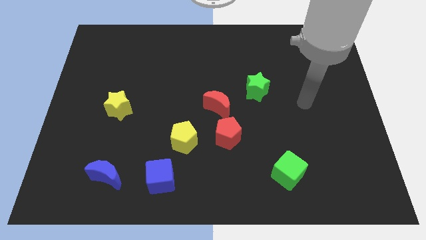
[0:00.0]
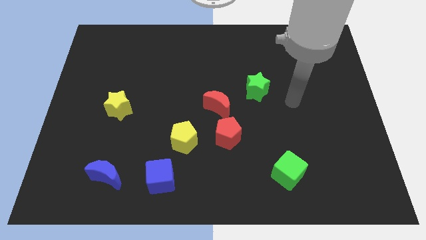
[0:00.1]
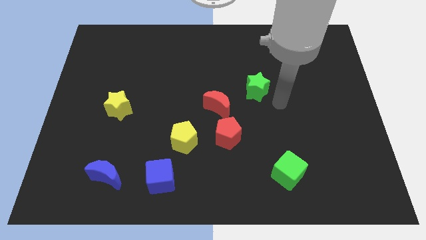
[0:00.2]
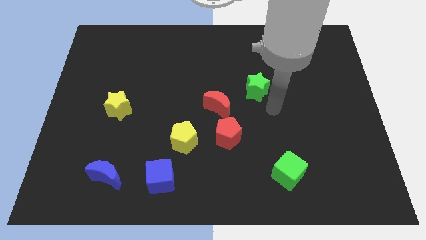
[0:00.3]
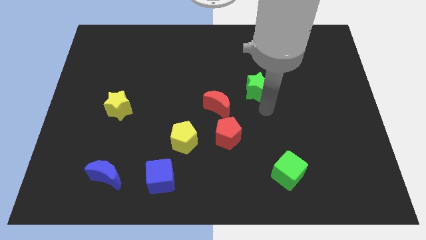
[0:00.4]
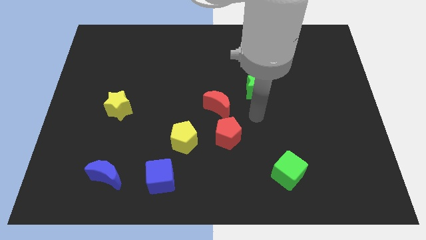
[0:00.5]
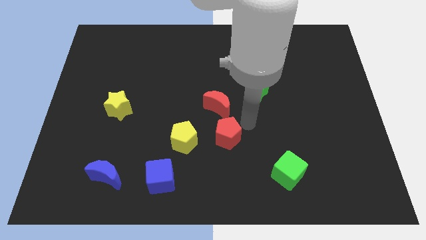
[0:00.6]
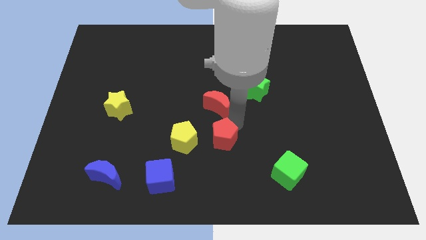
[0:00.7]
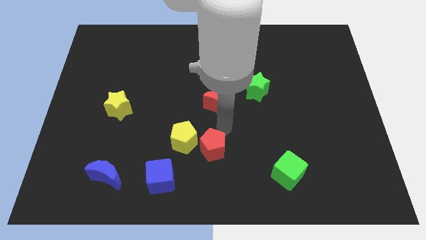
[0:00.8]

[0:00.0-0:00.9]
pull the red moon apart from the red pentagon

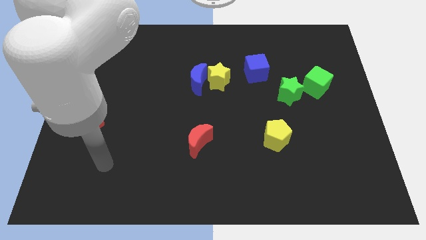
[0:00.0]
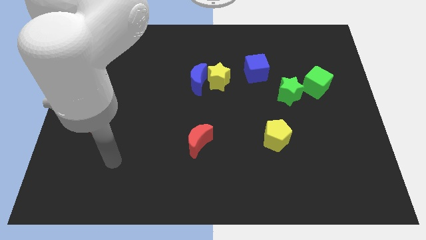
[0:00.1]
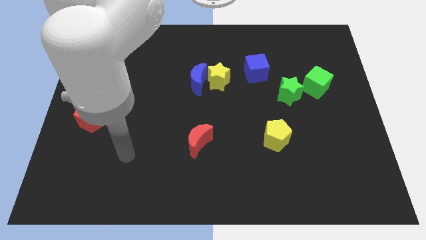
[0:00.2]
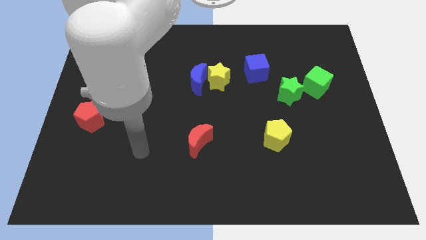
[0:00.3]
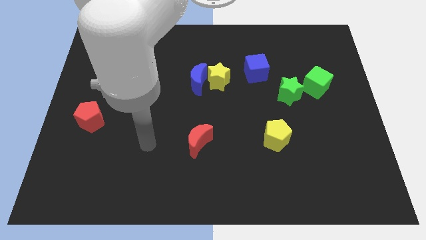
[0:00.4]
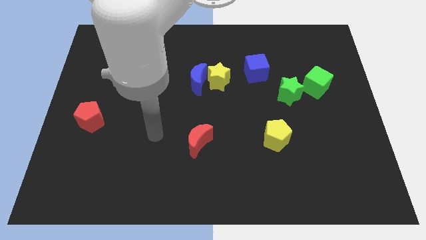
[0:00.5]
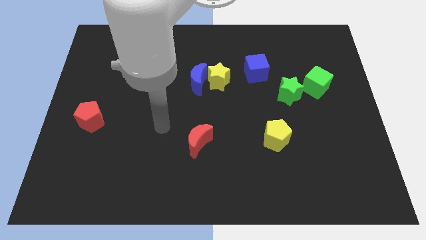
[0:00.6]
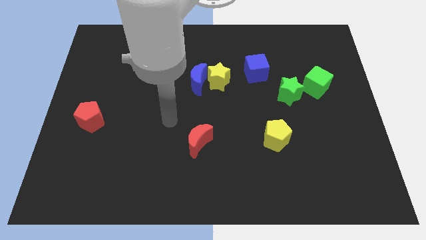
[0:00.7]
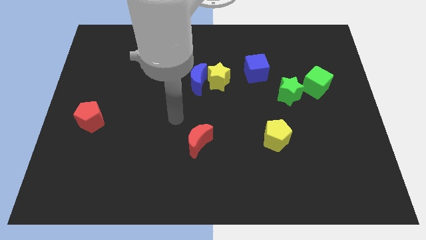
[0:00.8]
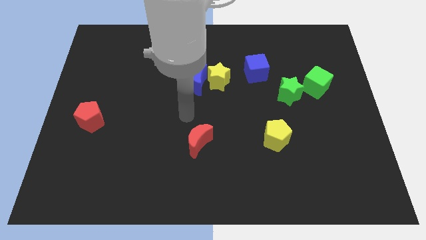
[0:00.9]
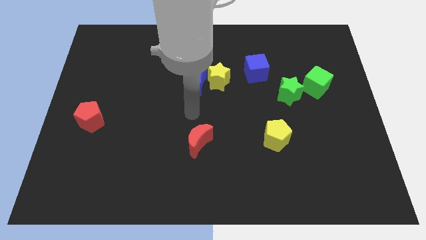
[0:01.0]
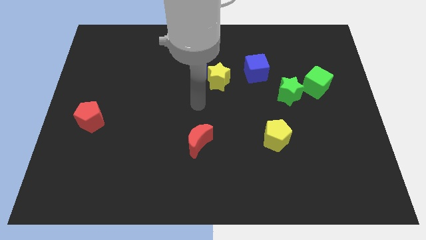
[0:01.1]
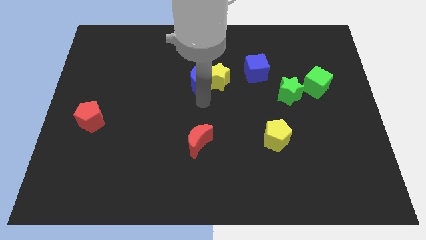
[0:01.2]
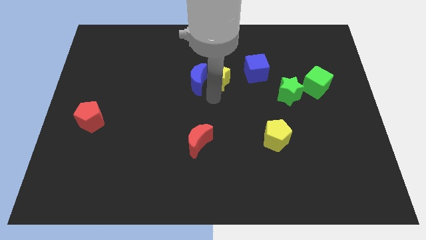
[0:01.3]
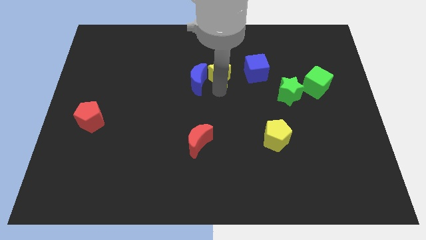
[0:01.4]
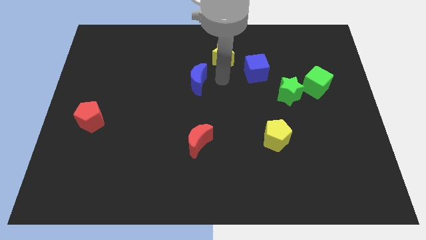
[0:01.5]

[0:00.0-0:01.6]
move the blue moon away from the yellow star

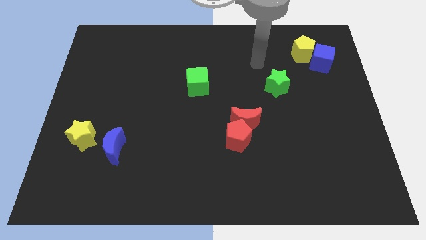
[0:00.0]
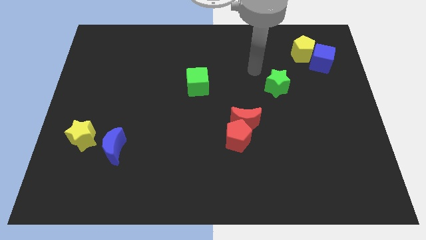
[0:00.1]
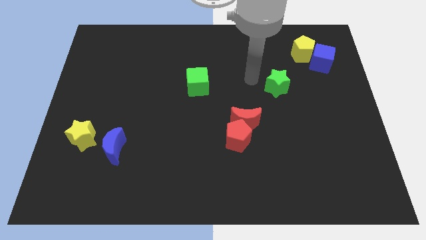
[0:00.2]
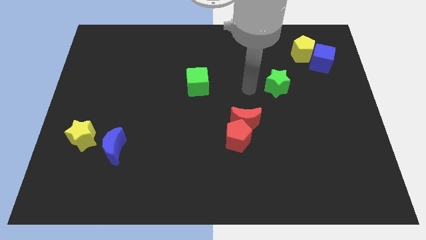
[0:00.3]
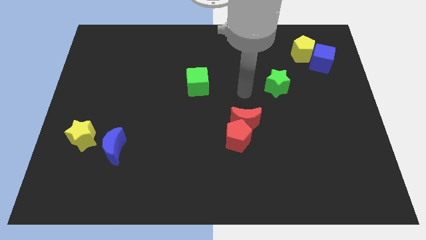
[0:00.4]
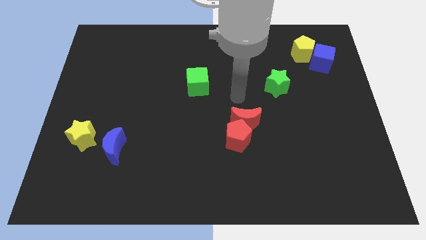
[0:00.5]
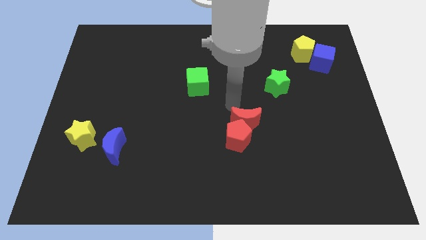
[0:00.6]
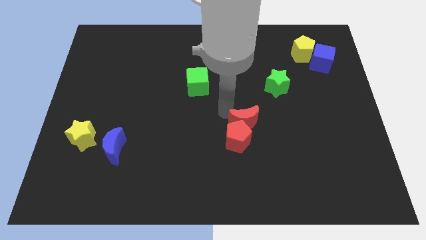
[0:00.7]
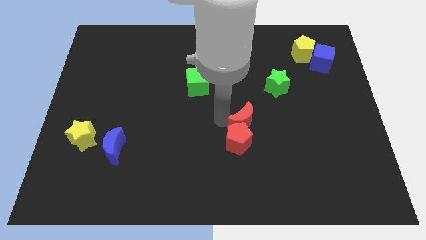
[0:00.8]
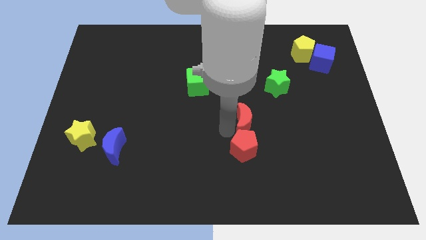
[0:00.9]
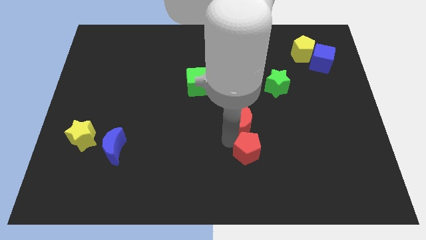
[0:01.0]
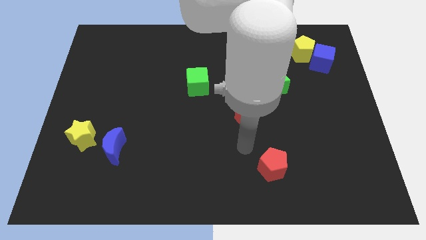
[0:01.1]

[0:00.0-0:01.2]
separate the red moon from the red pentagon

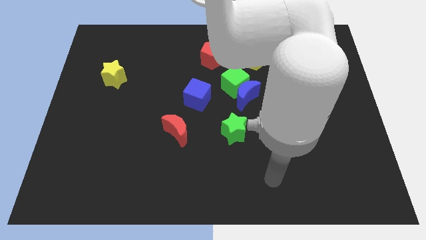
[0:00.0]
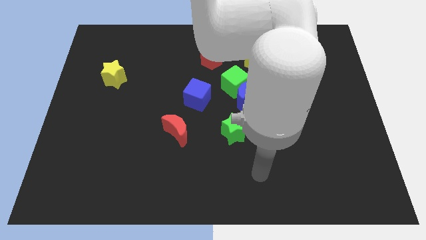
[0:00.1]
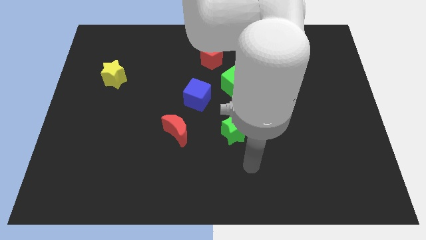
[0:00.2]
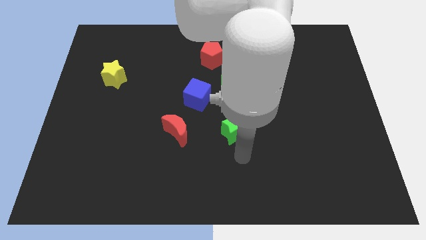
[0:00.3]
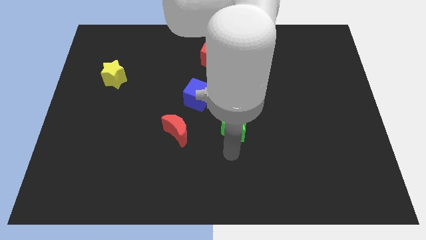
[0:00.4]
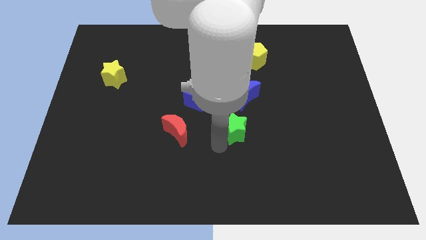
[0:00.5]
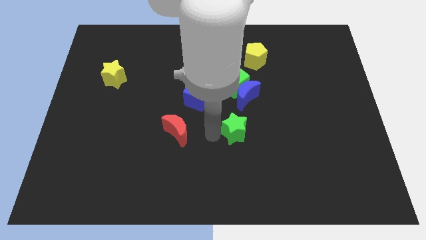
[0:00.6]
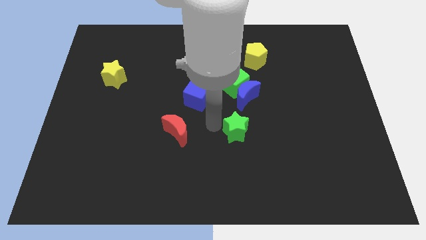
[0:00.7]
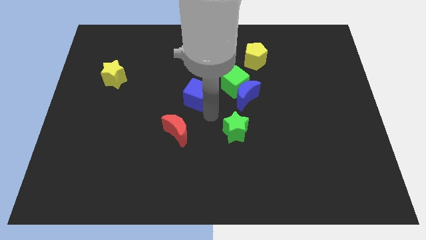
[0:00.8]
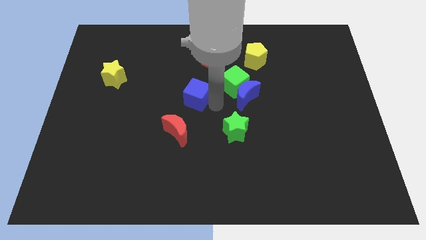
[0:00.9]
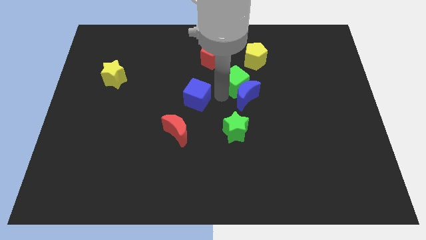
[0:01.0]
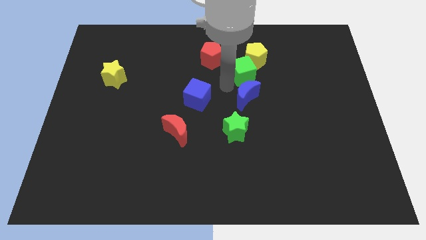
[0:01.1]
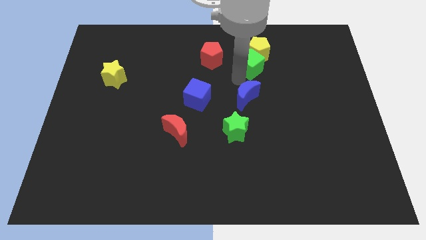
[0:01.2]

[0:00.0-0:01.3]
pull the blue moon apart from the green cube

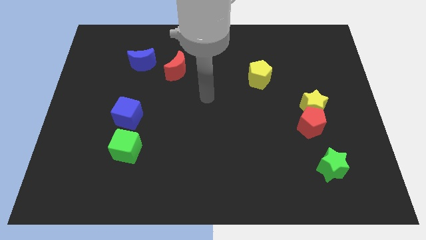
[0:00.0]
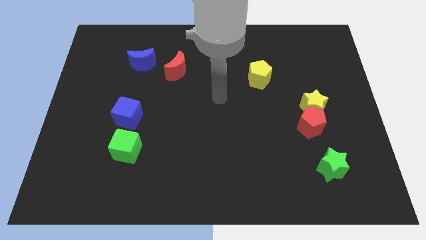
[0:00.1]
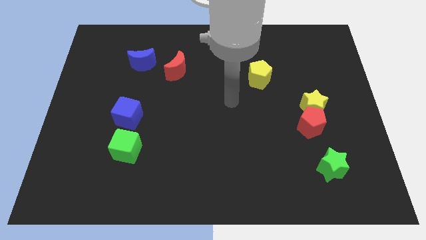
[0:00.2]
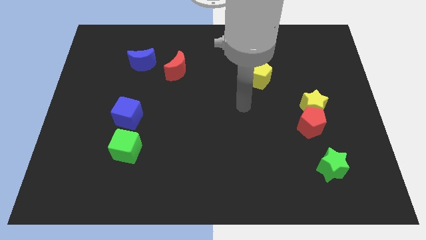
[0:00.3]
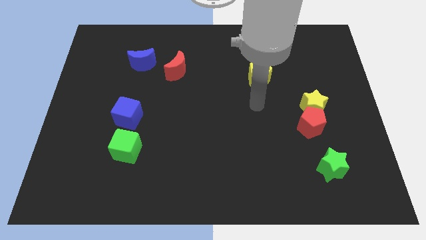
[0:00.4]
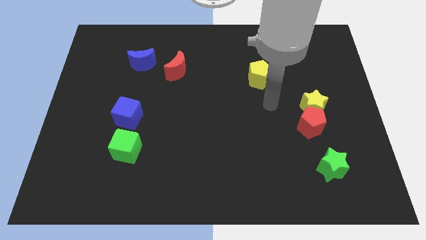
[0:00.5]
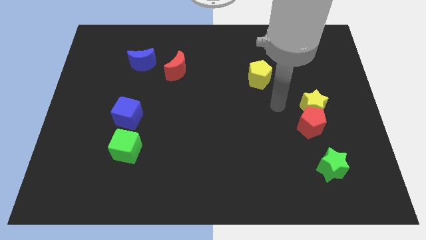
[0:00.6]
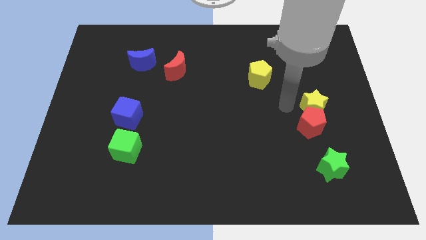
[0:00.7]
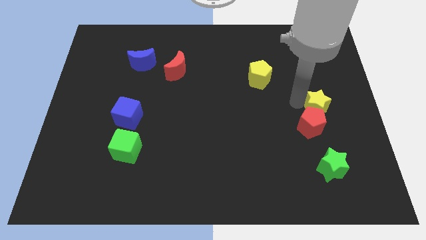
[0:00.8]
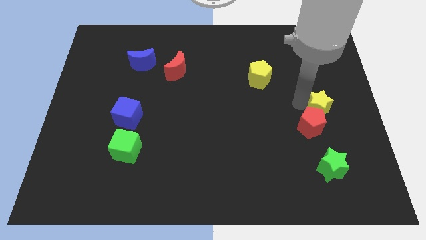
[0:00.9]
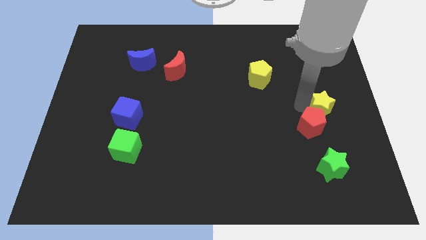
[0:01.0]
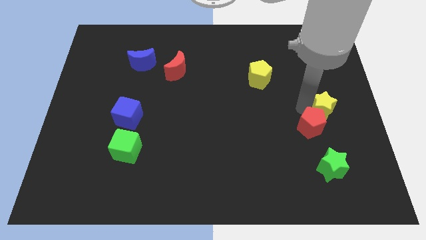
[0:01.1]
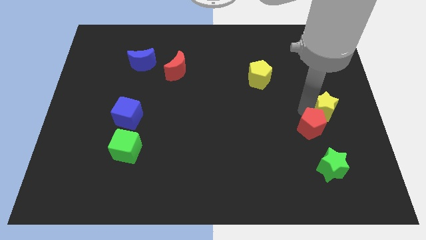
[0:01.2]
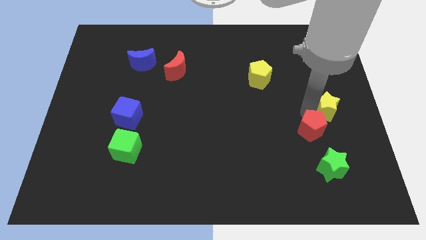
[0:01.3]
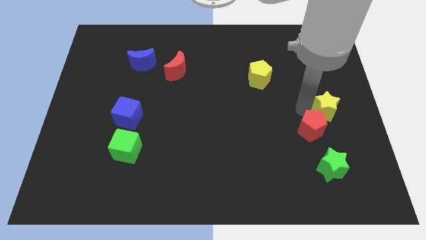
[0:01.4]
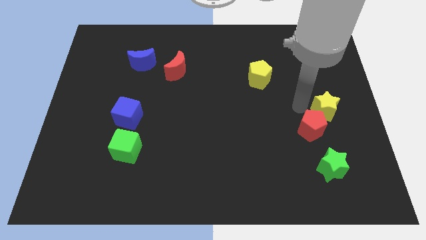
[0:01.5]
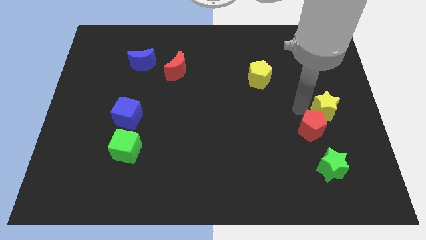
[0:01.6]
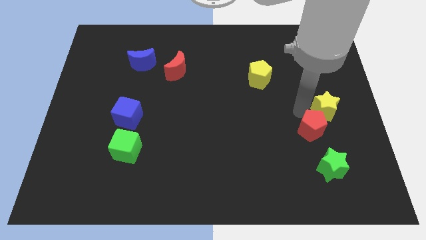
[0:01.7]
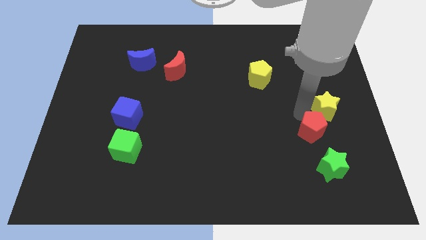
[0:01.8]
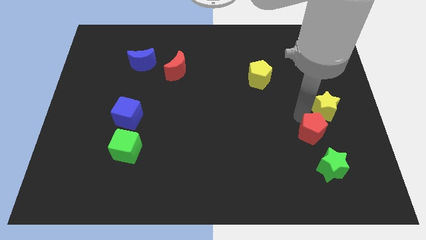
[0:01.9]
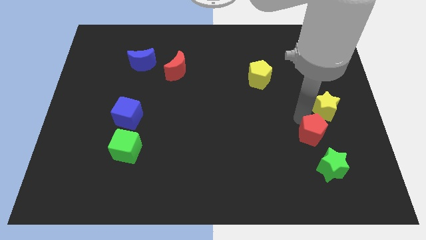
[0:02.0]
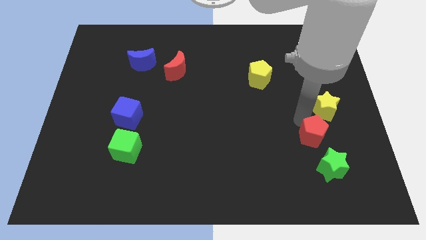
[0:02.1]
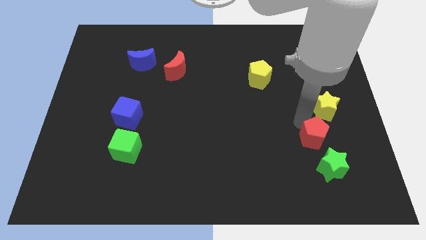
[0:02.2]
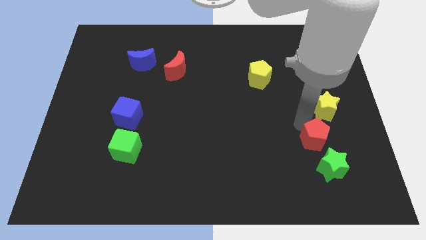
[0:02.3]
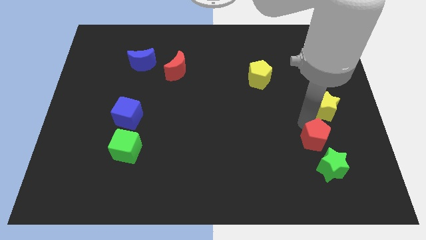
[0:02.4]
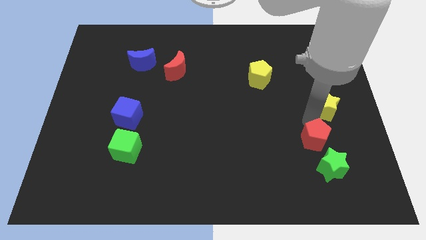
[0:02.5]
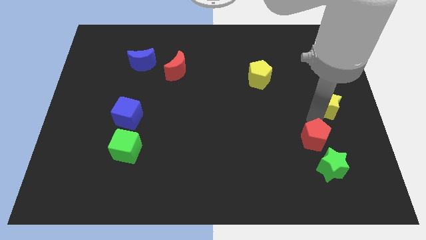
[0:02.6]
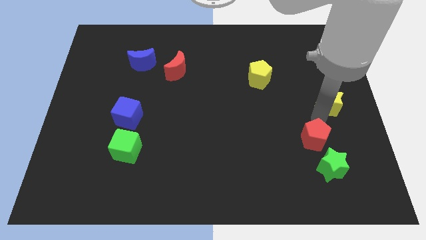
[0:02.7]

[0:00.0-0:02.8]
separate the red pentagon from the yellow star

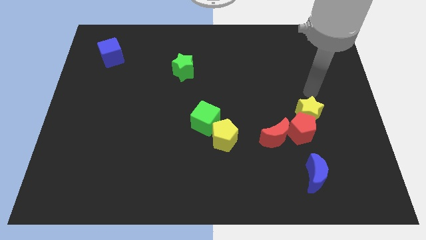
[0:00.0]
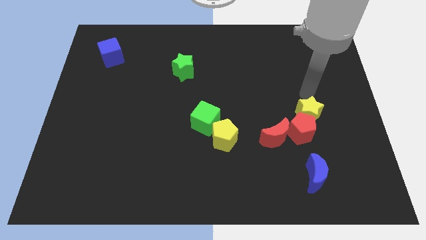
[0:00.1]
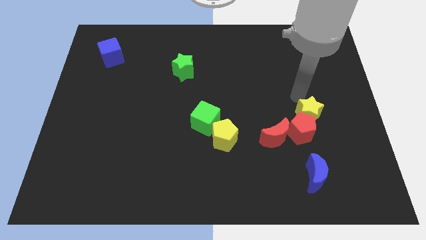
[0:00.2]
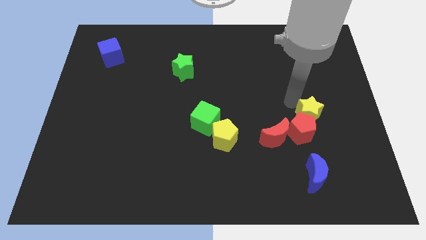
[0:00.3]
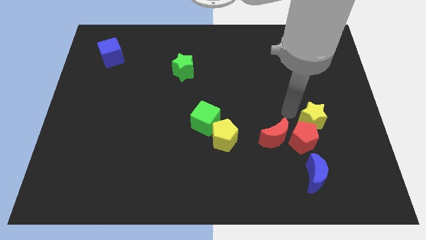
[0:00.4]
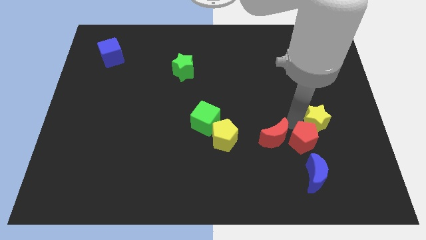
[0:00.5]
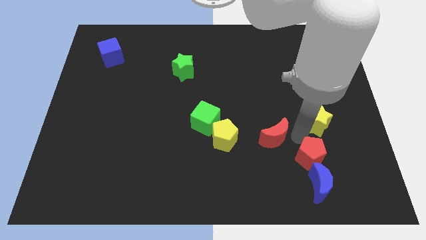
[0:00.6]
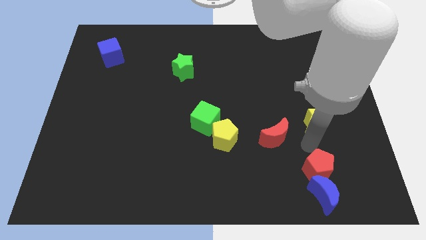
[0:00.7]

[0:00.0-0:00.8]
move the yellow star away from the red pentagon

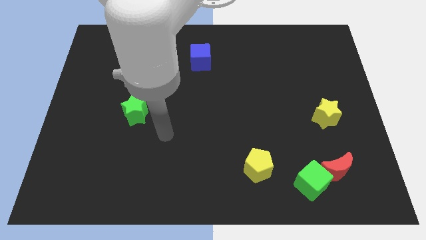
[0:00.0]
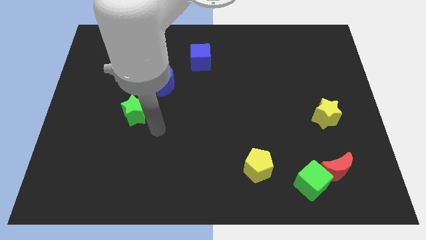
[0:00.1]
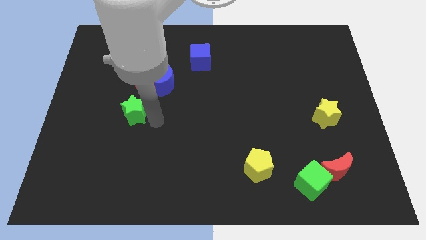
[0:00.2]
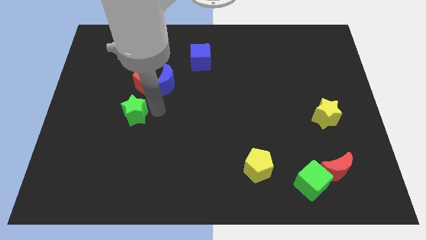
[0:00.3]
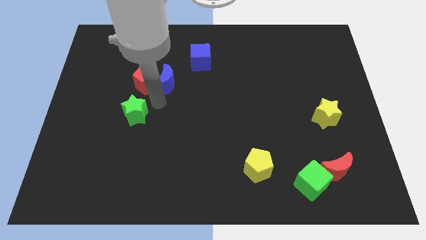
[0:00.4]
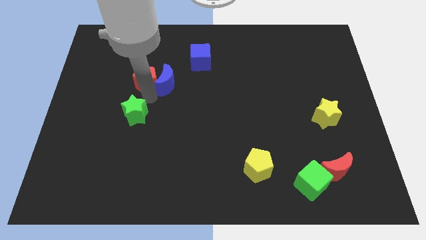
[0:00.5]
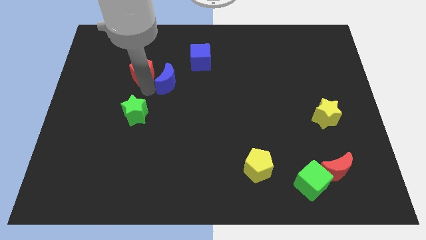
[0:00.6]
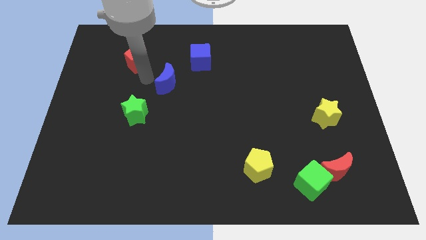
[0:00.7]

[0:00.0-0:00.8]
pull the blue moon apart from the red pentagon

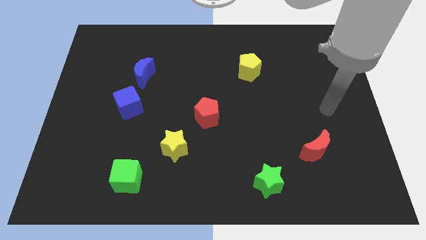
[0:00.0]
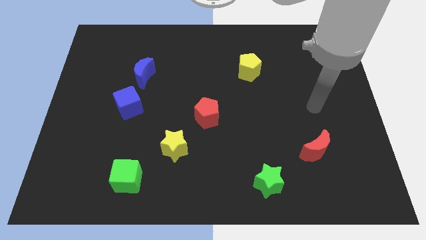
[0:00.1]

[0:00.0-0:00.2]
separate the blue moon from the blue cube
